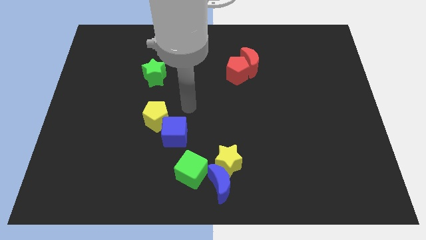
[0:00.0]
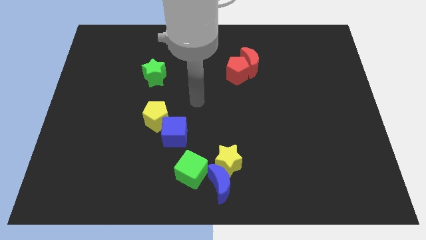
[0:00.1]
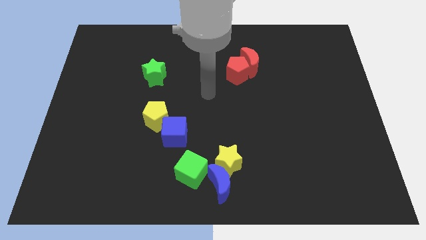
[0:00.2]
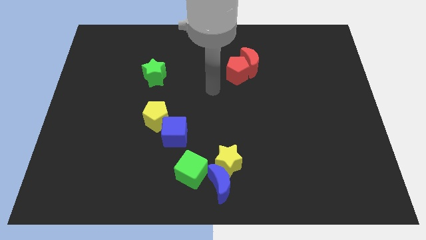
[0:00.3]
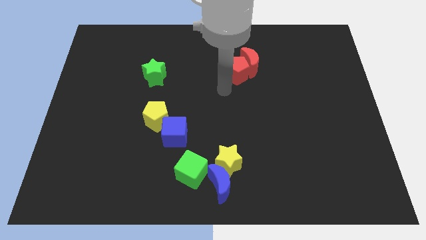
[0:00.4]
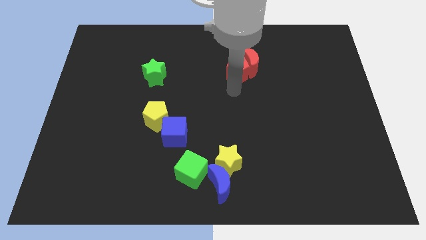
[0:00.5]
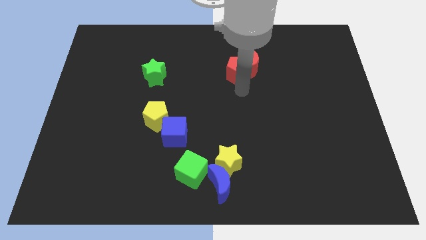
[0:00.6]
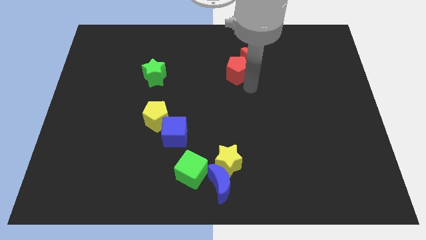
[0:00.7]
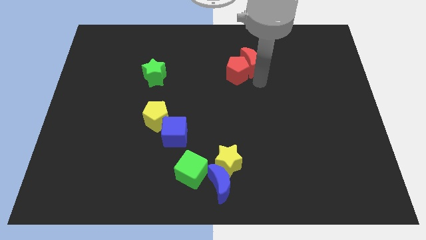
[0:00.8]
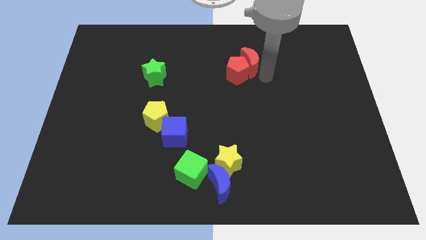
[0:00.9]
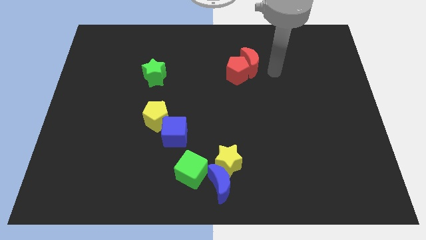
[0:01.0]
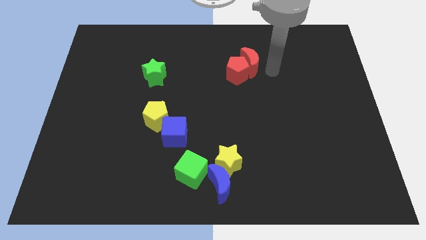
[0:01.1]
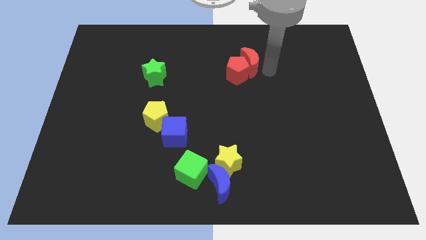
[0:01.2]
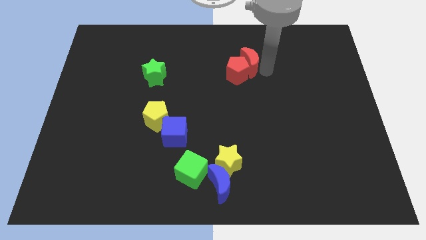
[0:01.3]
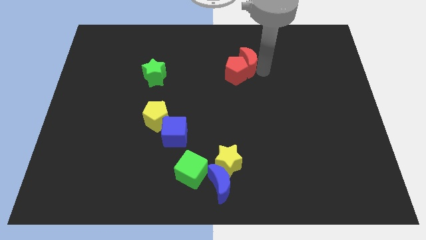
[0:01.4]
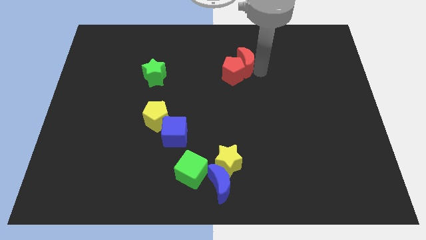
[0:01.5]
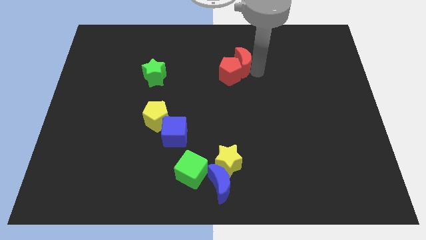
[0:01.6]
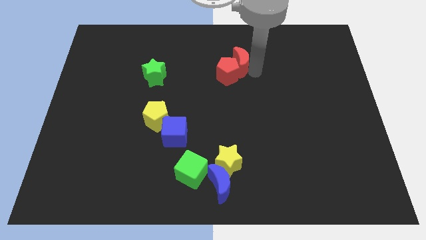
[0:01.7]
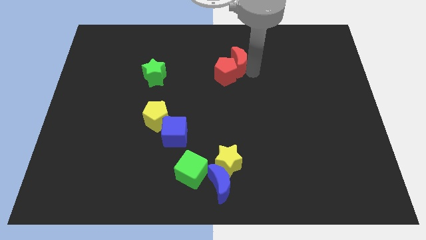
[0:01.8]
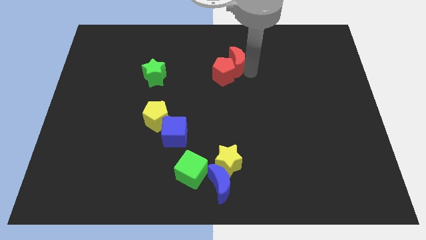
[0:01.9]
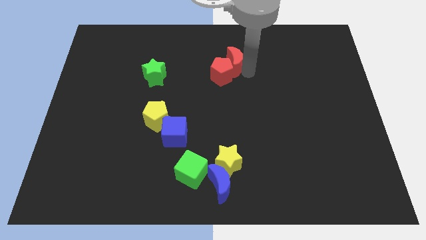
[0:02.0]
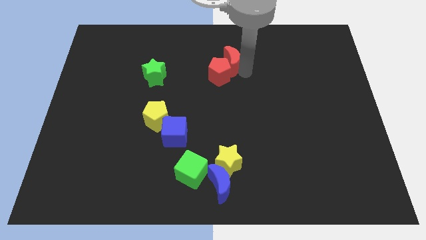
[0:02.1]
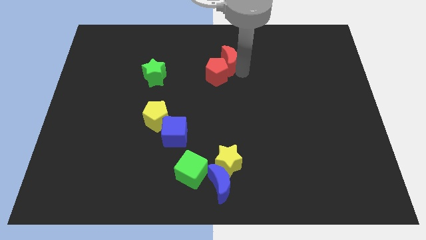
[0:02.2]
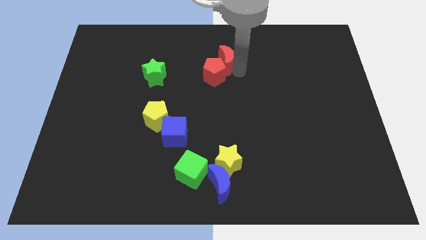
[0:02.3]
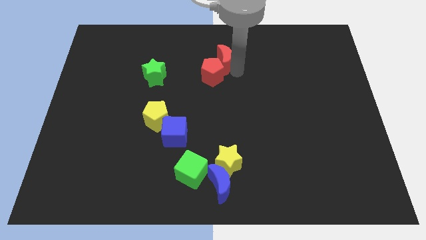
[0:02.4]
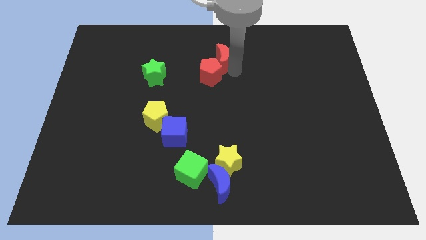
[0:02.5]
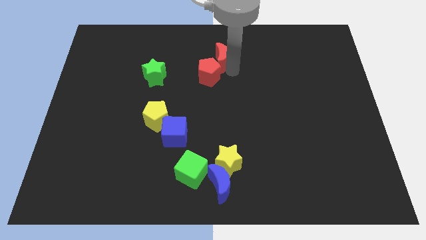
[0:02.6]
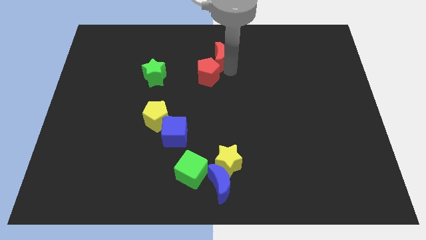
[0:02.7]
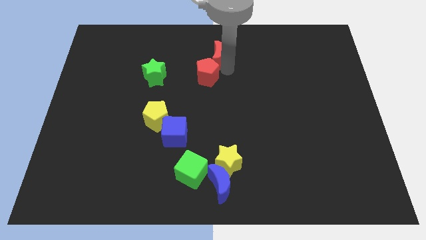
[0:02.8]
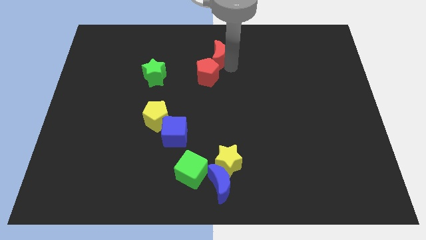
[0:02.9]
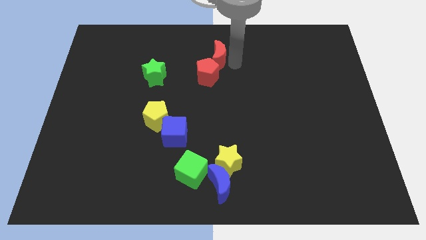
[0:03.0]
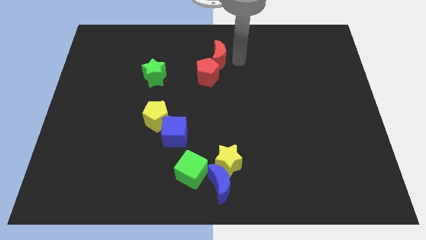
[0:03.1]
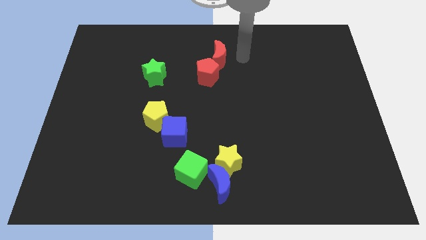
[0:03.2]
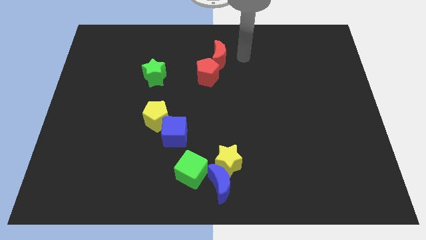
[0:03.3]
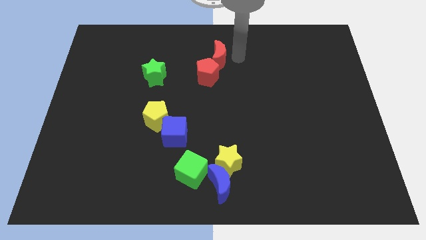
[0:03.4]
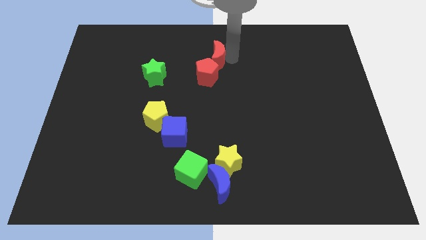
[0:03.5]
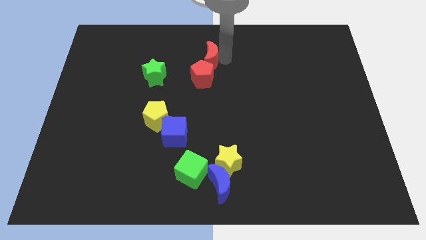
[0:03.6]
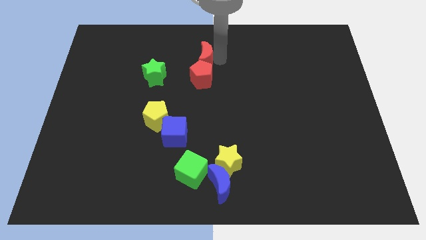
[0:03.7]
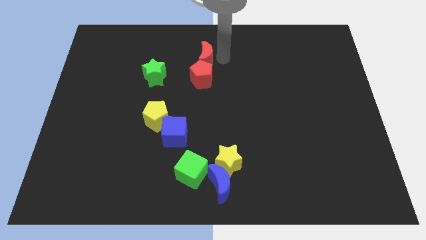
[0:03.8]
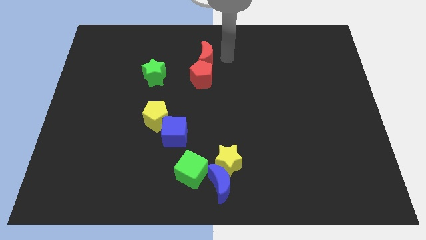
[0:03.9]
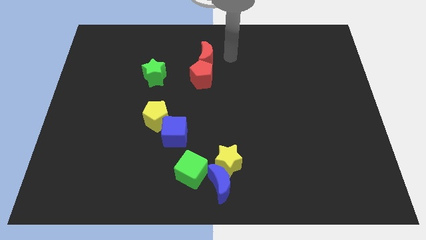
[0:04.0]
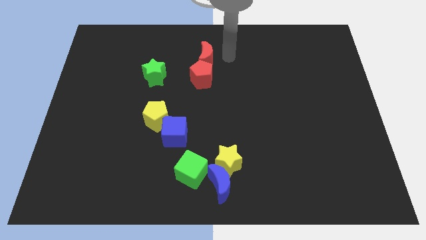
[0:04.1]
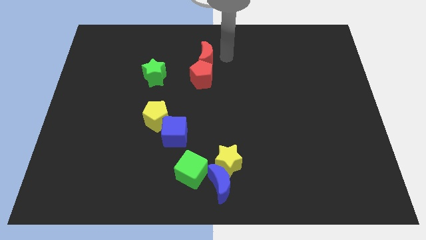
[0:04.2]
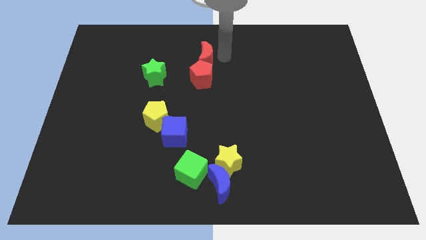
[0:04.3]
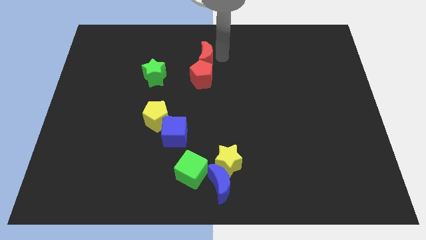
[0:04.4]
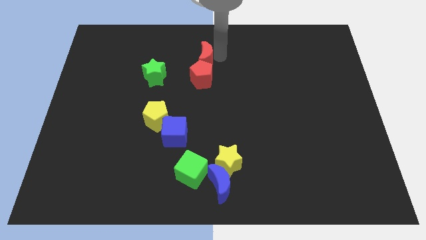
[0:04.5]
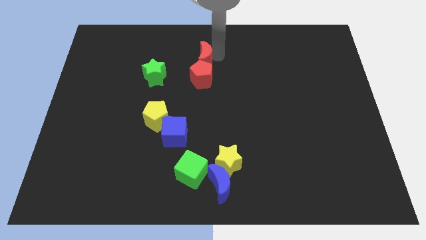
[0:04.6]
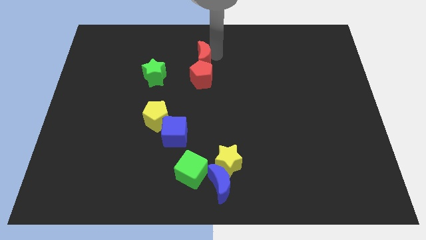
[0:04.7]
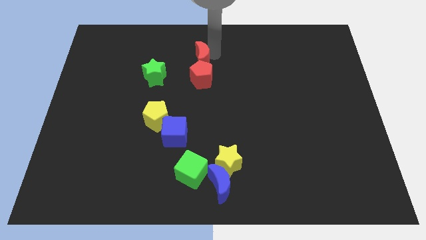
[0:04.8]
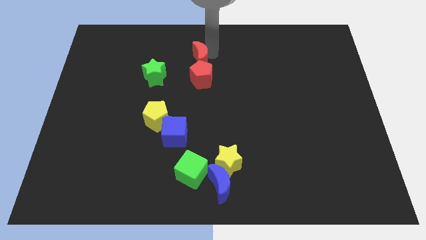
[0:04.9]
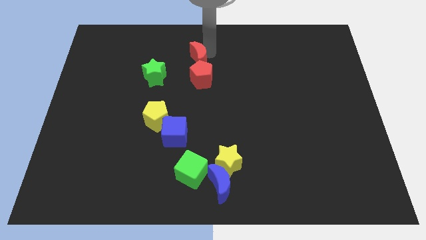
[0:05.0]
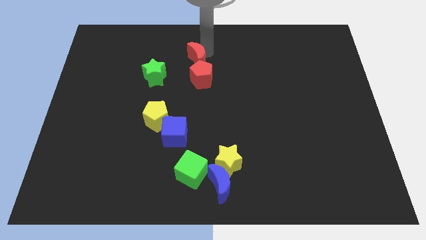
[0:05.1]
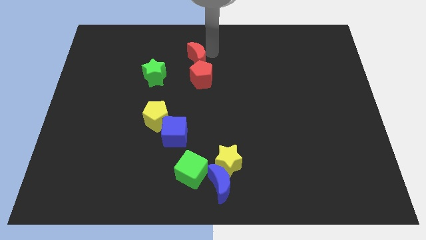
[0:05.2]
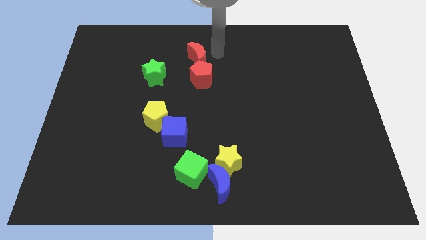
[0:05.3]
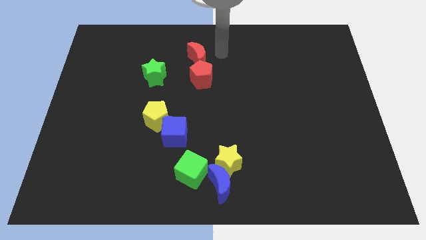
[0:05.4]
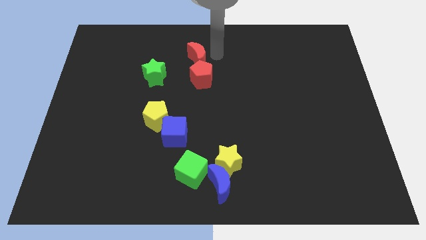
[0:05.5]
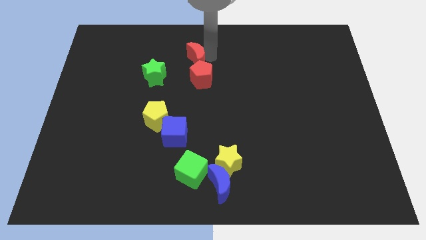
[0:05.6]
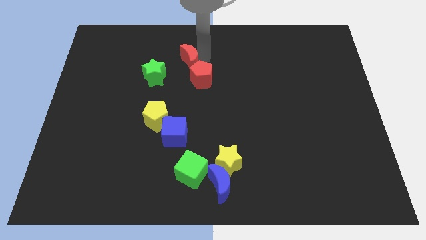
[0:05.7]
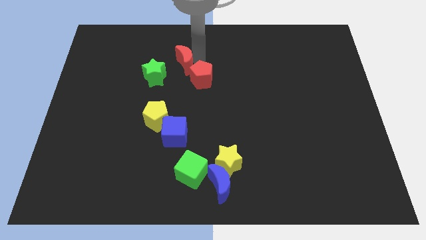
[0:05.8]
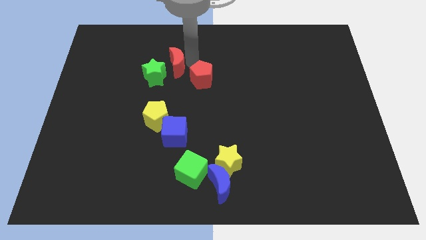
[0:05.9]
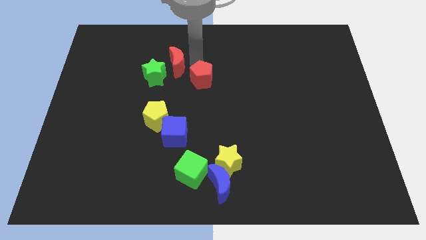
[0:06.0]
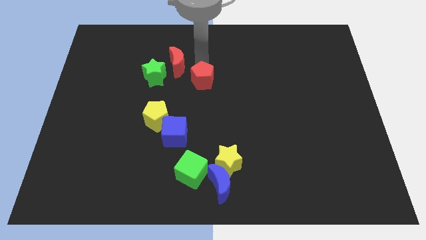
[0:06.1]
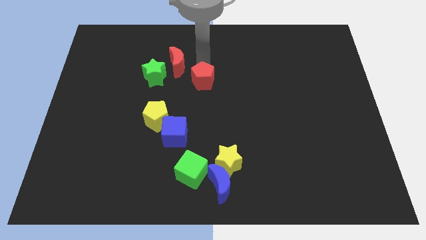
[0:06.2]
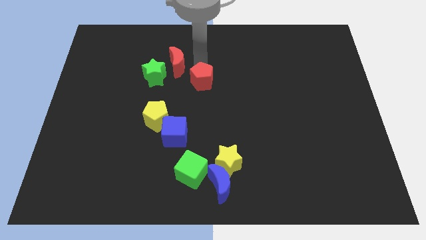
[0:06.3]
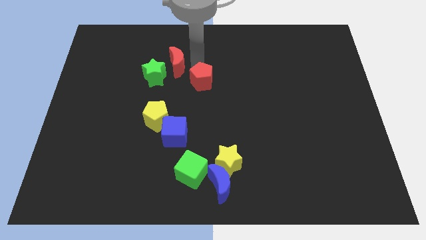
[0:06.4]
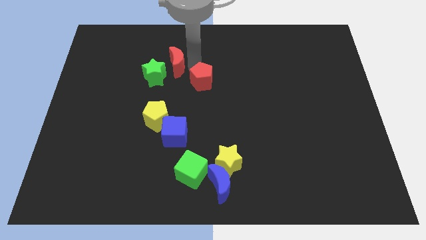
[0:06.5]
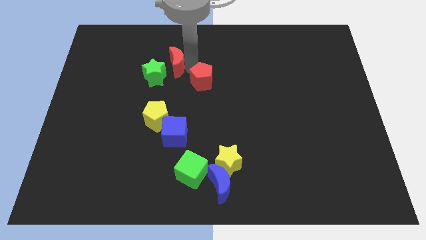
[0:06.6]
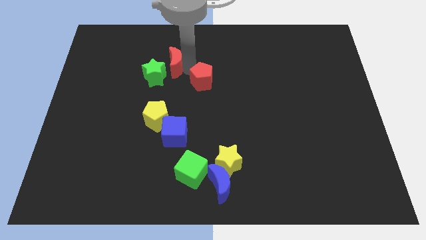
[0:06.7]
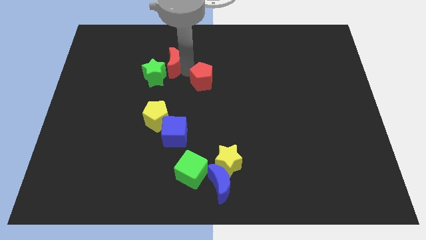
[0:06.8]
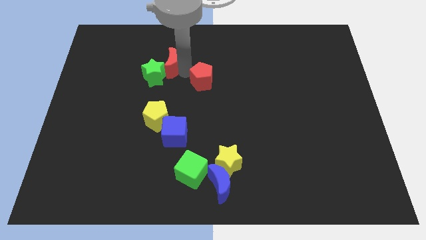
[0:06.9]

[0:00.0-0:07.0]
move the red moon to the left

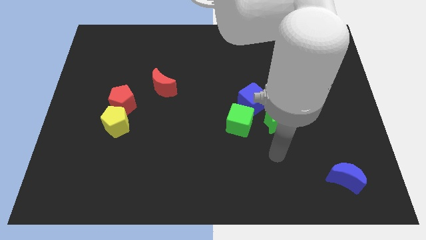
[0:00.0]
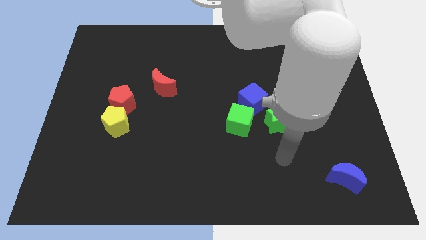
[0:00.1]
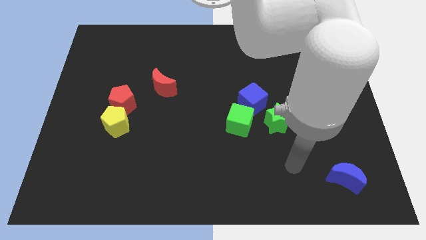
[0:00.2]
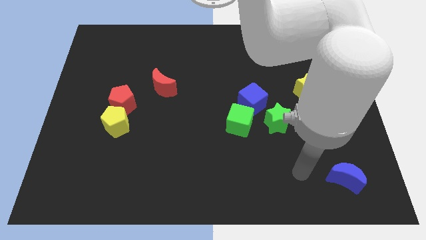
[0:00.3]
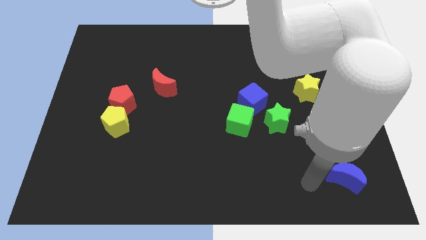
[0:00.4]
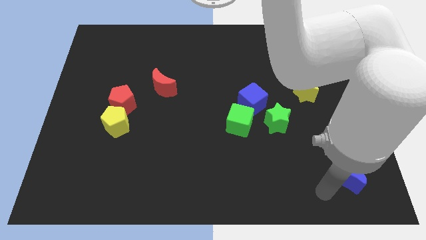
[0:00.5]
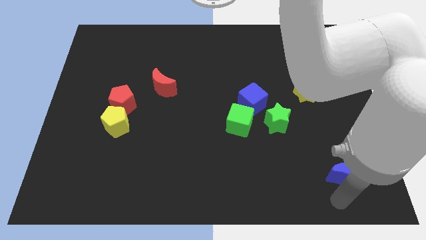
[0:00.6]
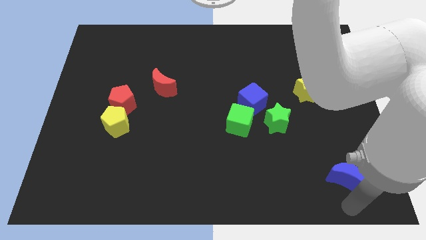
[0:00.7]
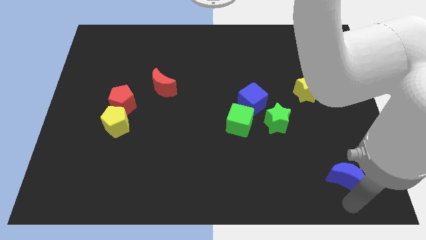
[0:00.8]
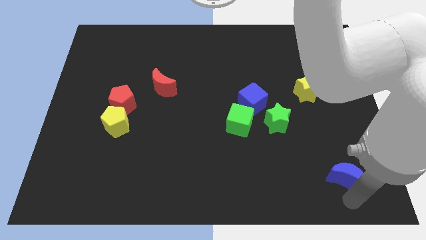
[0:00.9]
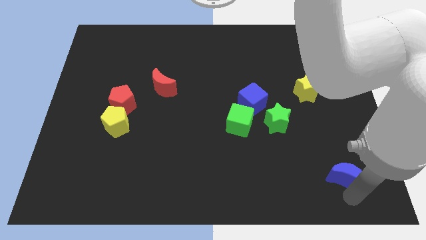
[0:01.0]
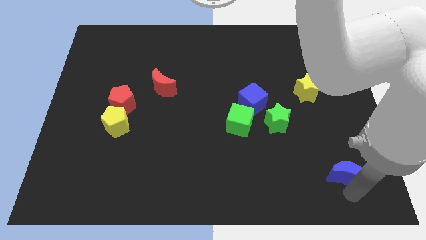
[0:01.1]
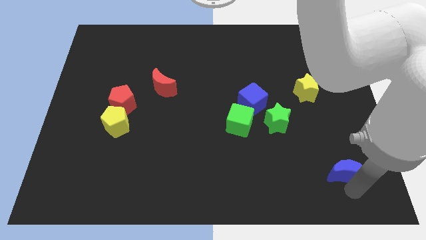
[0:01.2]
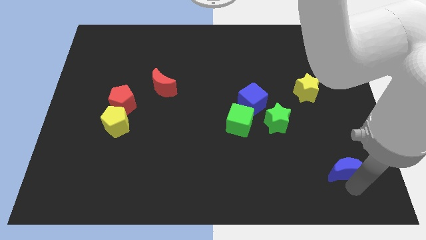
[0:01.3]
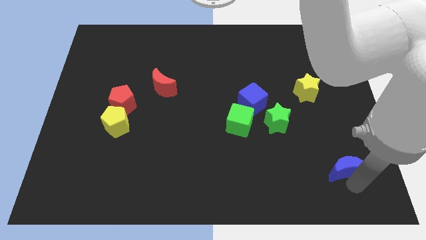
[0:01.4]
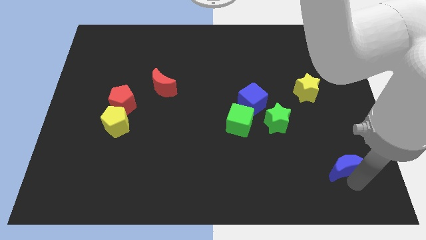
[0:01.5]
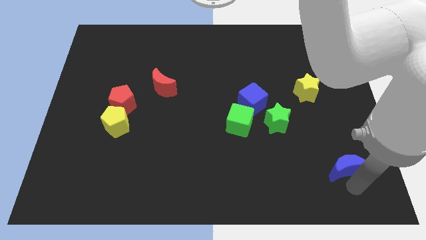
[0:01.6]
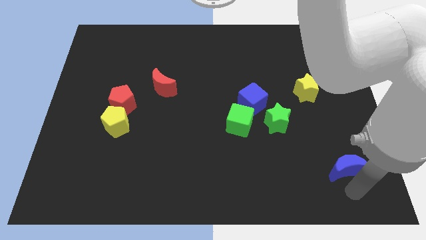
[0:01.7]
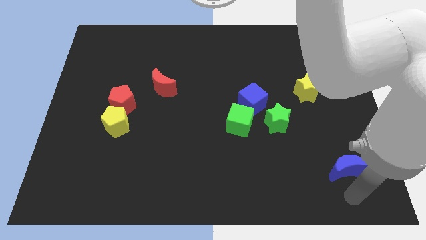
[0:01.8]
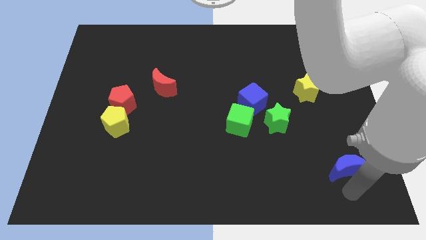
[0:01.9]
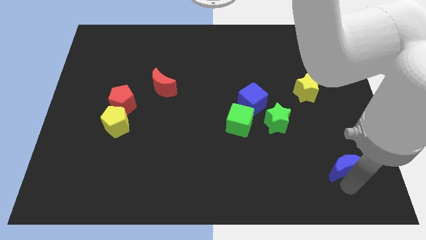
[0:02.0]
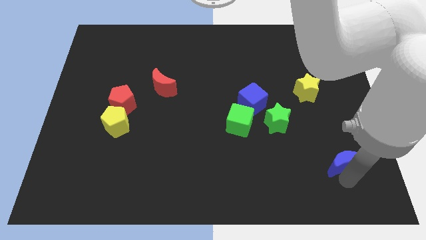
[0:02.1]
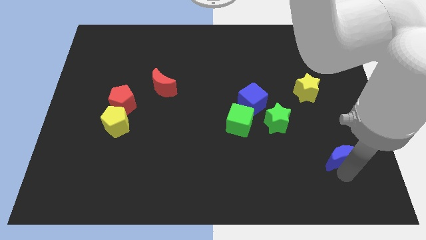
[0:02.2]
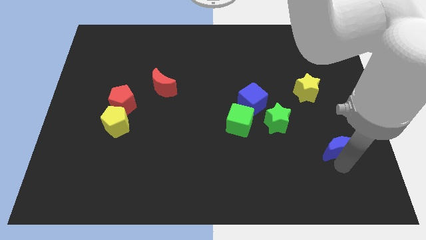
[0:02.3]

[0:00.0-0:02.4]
slightly slide the blue moon up
